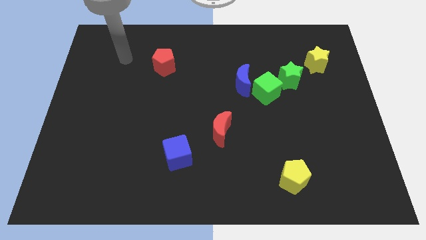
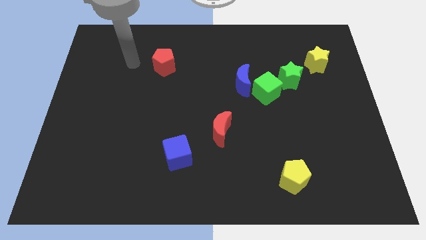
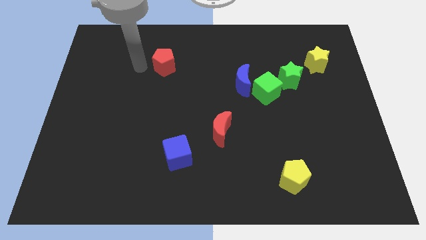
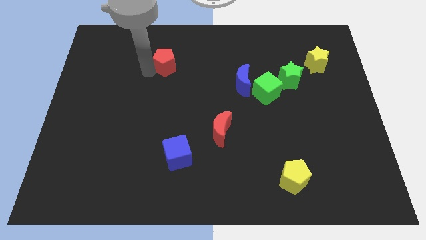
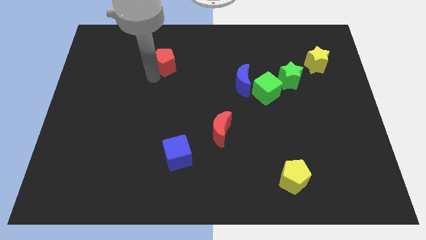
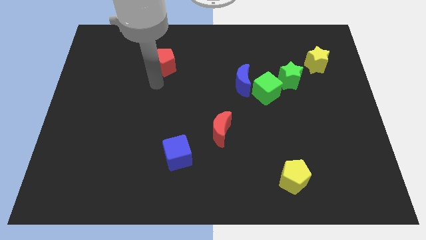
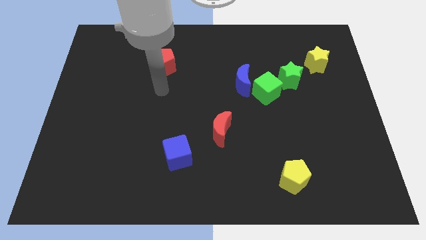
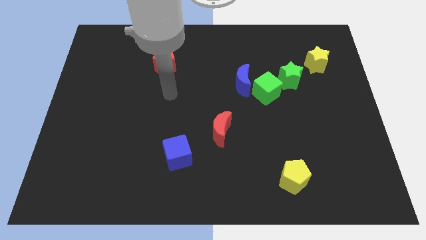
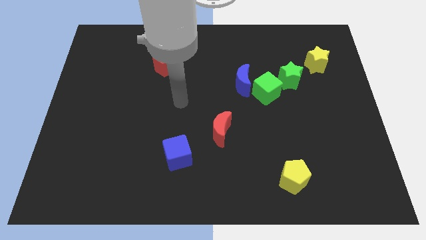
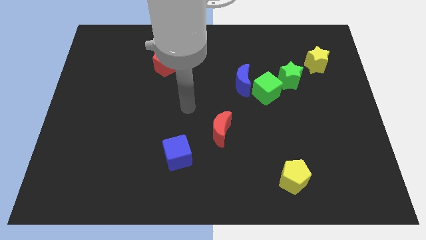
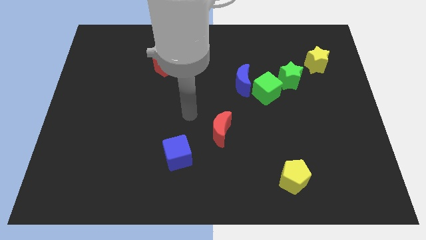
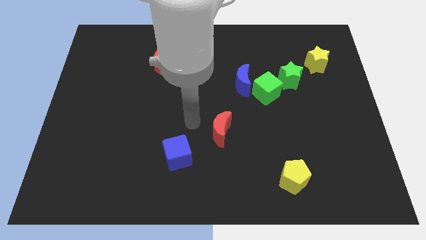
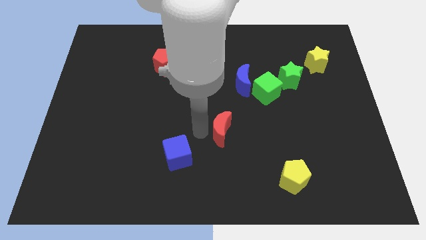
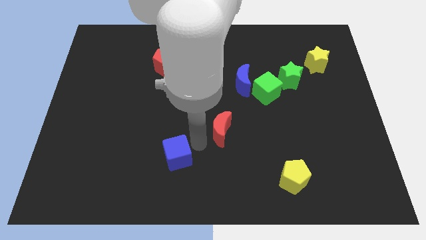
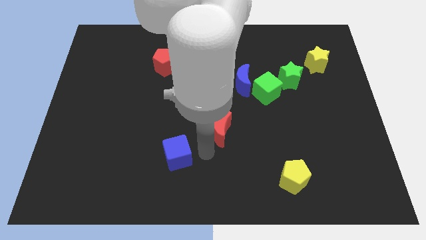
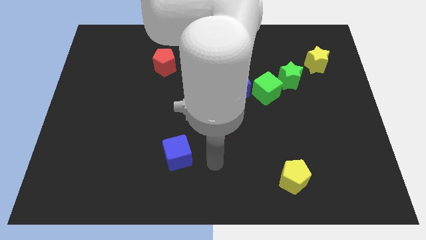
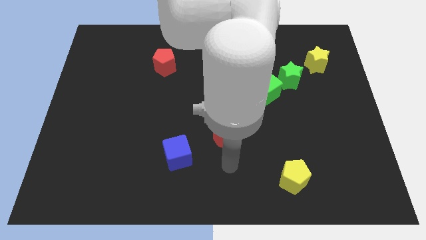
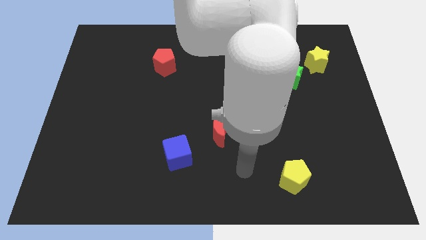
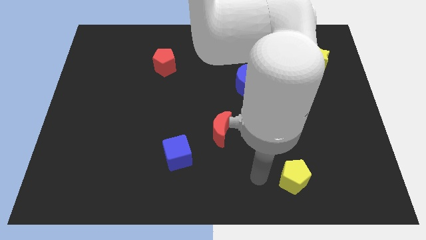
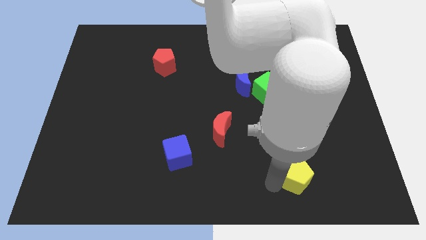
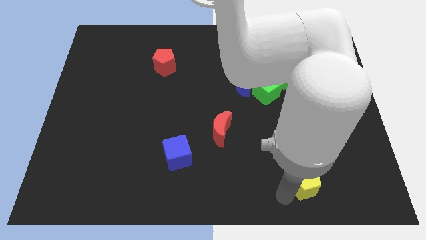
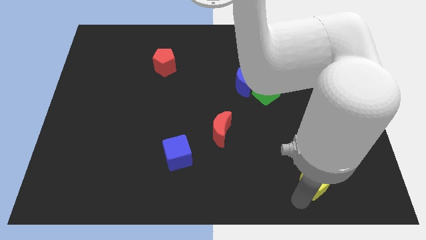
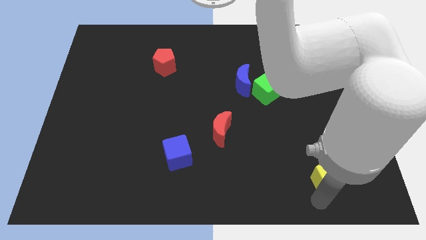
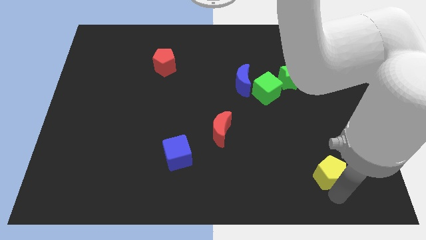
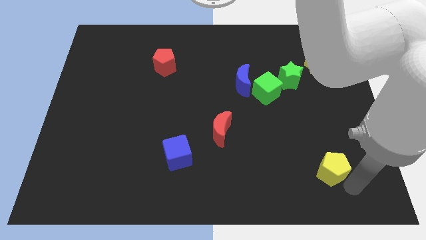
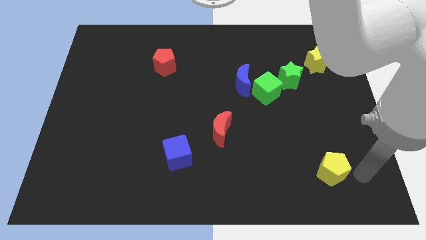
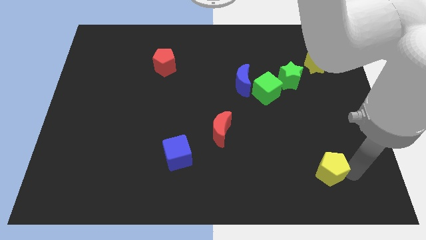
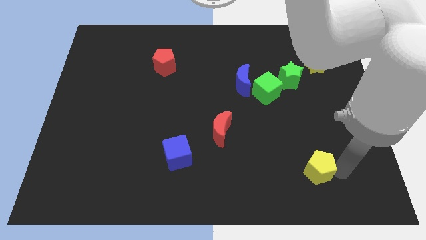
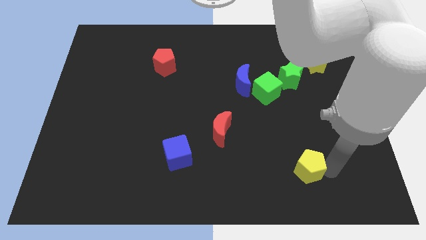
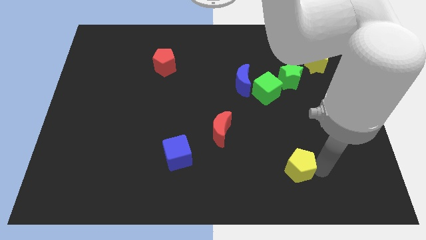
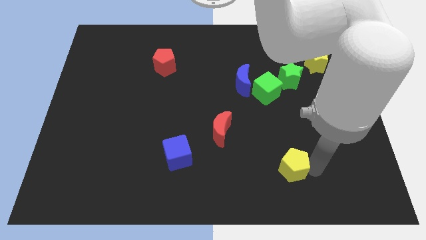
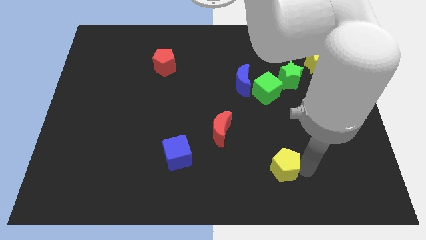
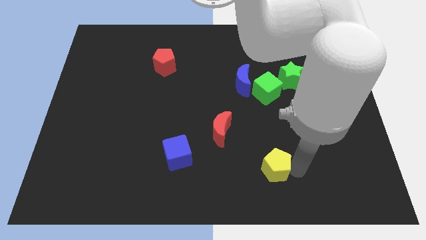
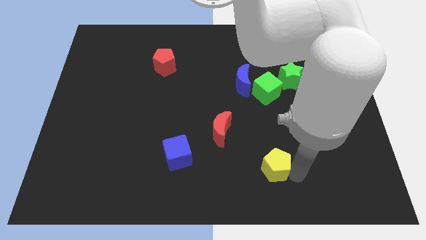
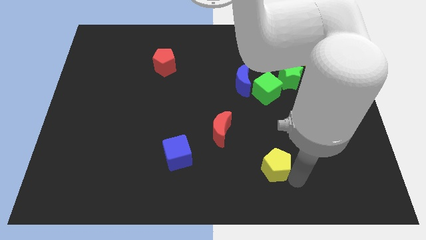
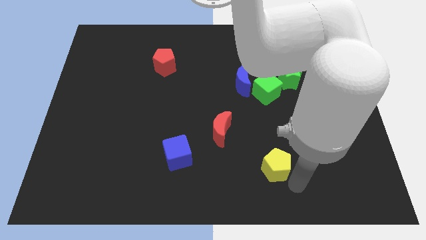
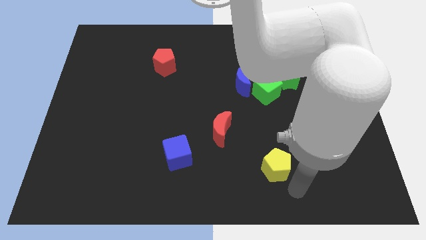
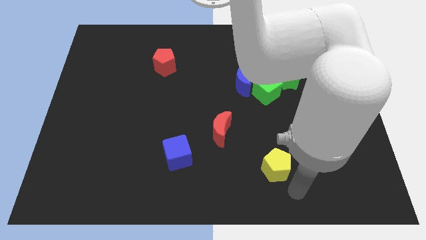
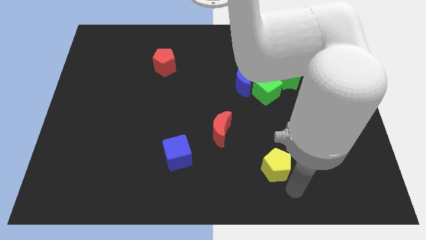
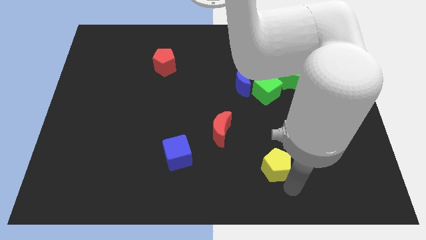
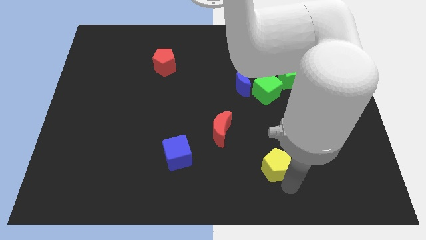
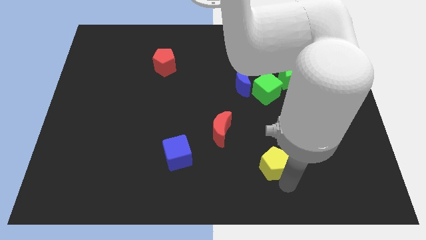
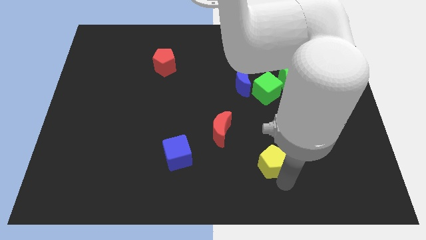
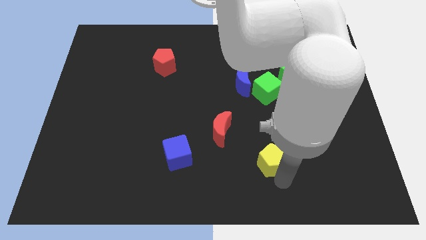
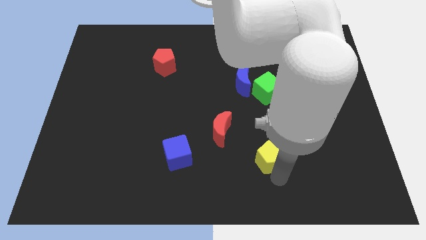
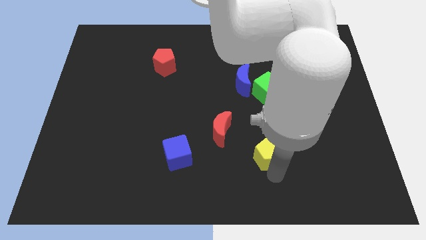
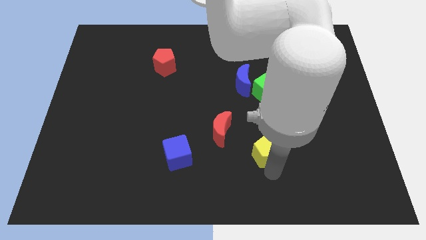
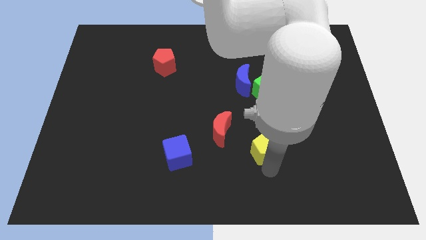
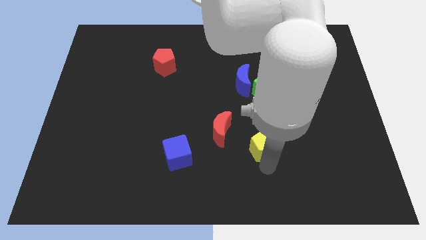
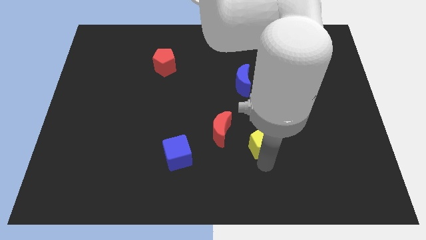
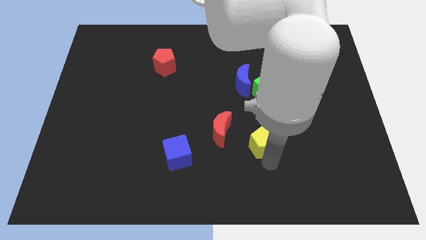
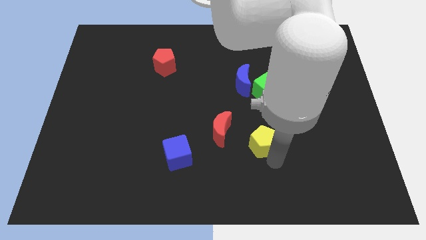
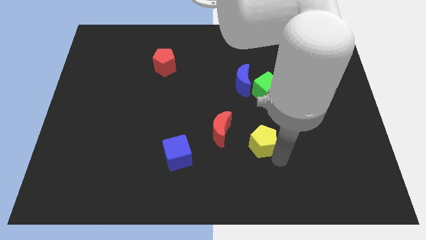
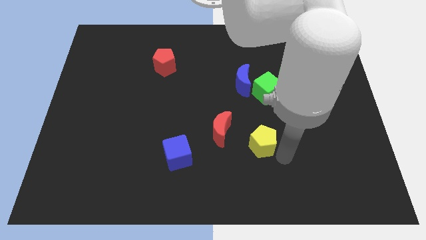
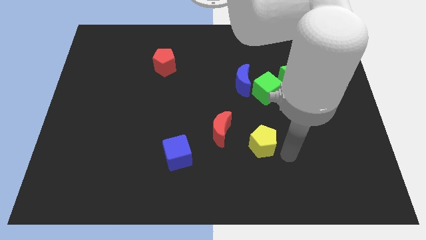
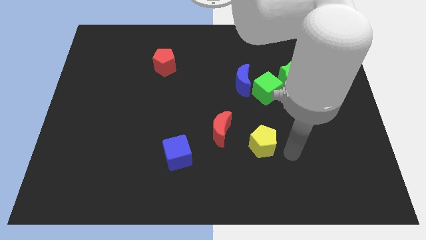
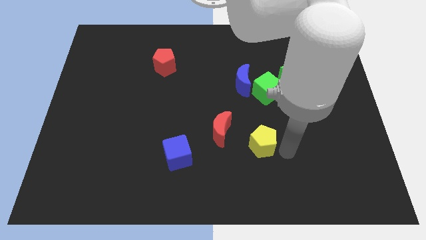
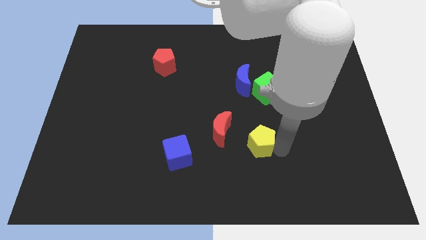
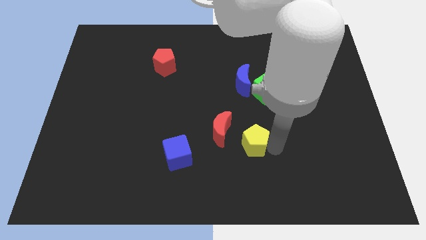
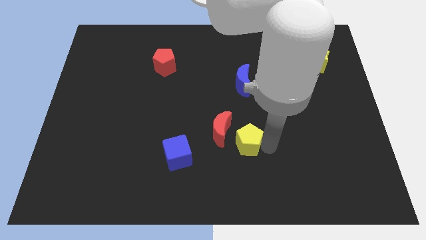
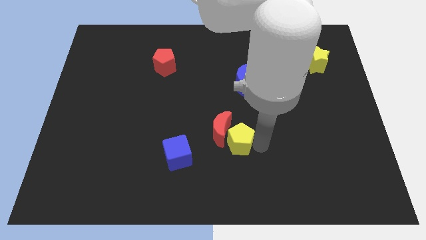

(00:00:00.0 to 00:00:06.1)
put the yellow pentagon close to the red moon

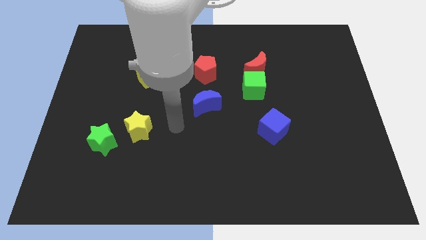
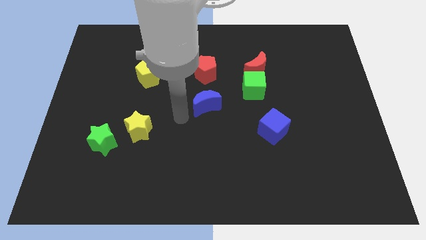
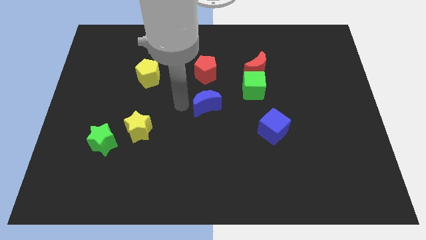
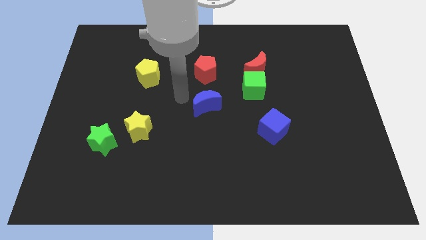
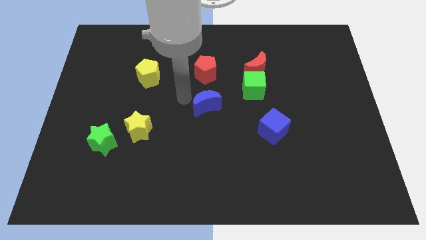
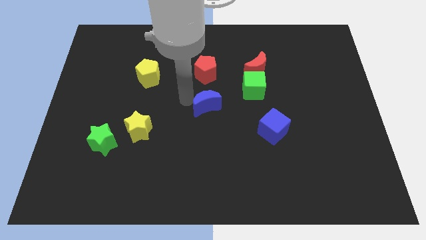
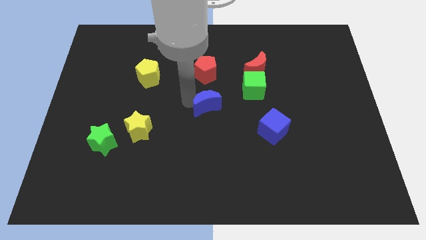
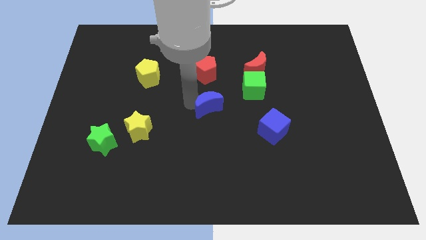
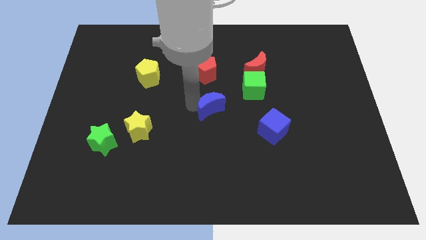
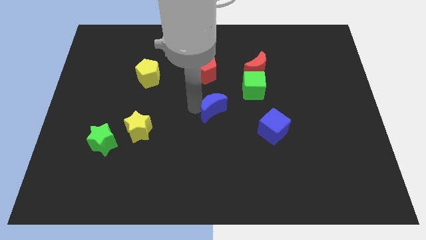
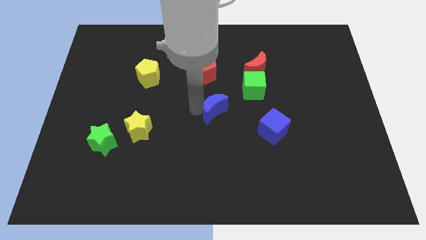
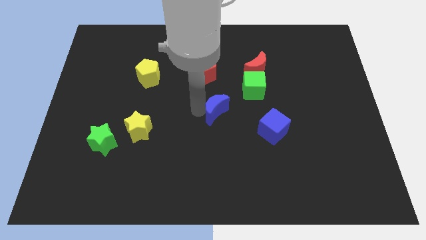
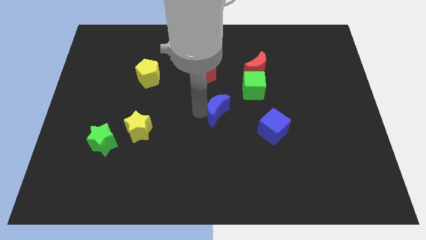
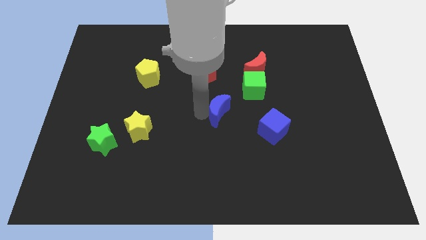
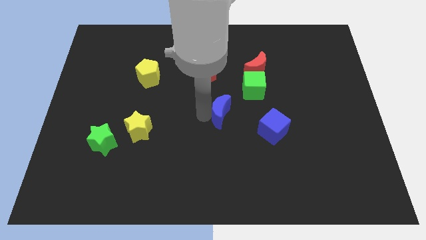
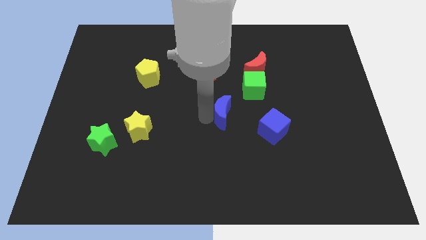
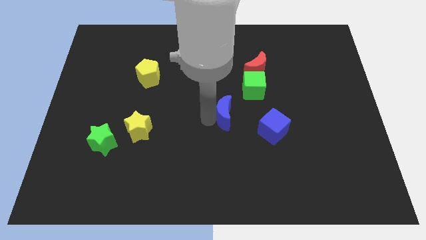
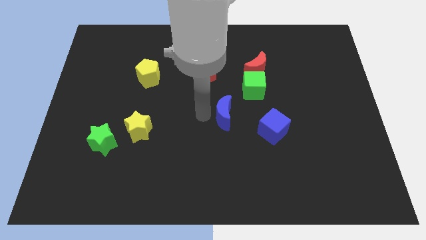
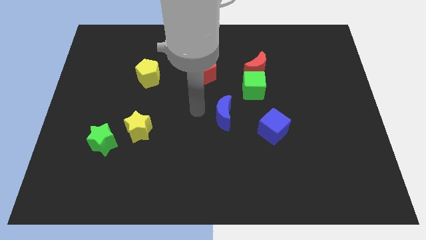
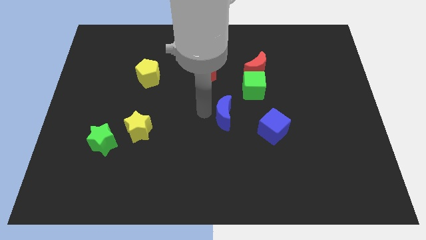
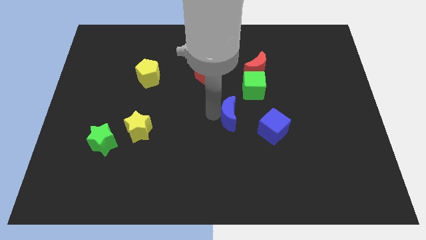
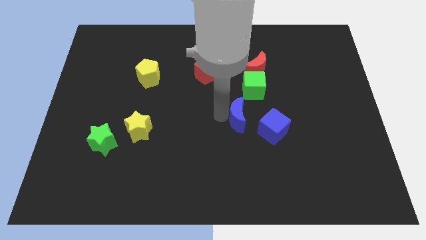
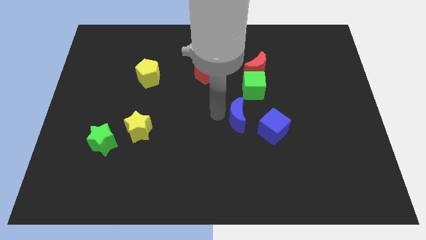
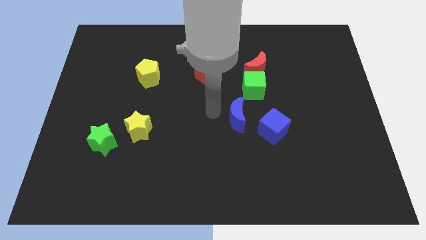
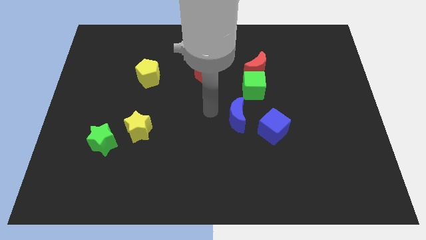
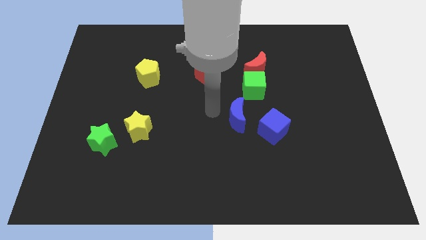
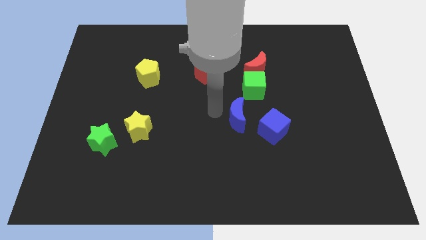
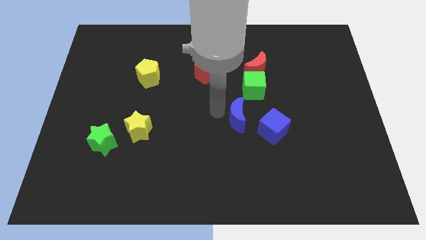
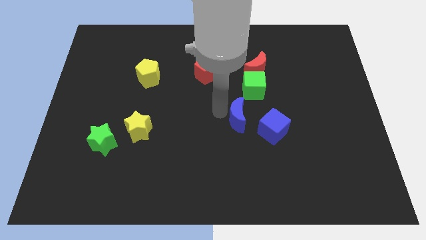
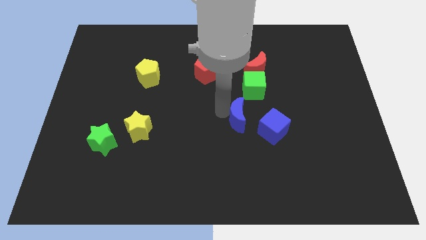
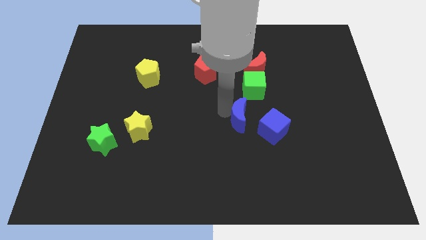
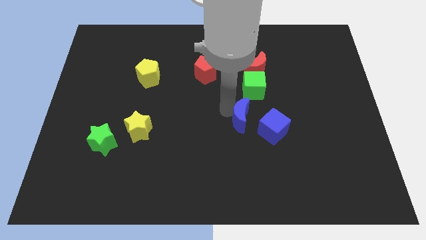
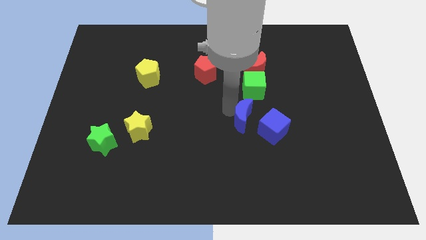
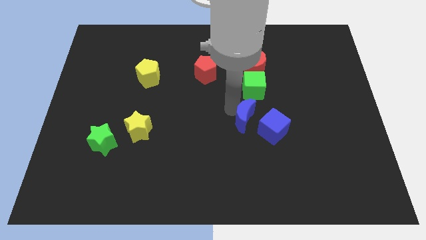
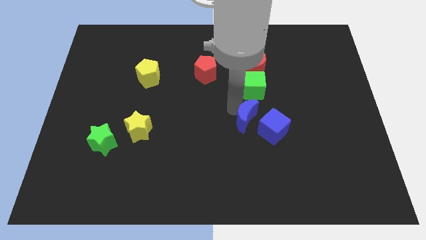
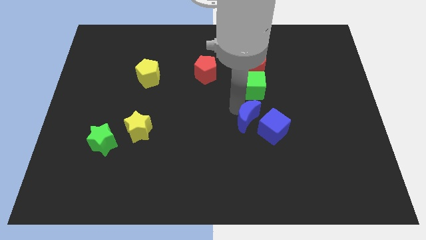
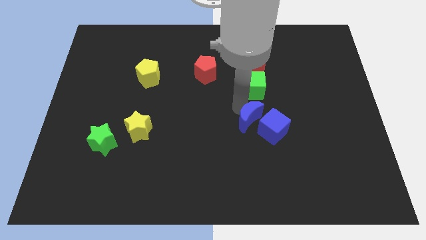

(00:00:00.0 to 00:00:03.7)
move the blue moon next to the blue cube
